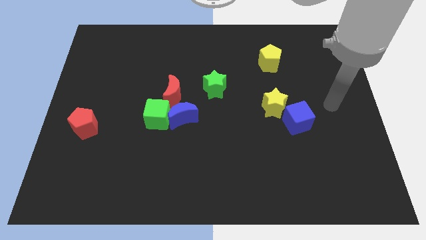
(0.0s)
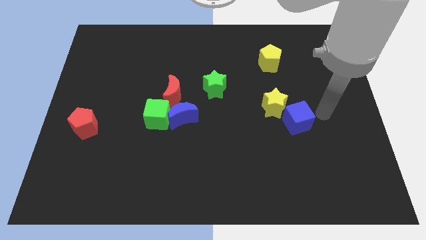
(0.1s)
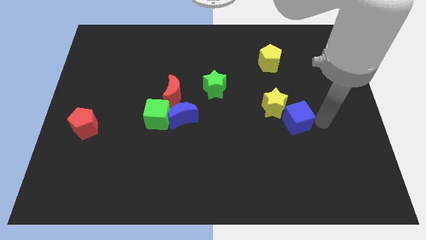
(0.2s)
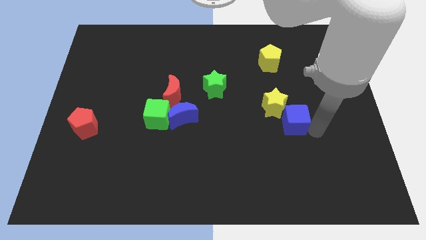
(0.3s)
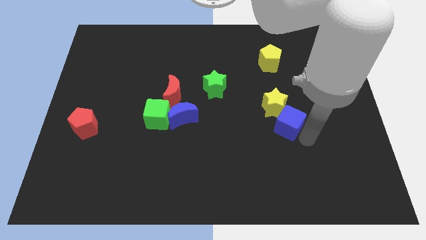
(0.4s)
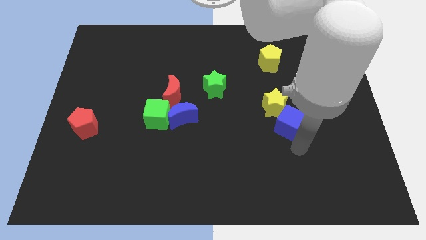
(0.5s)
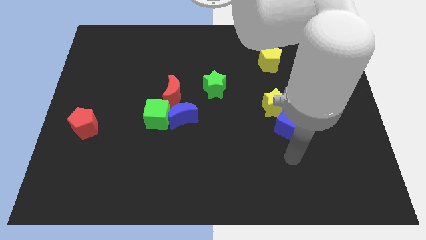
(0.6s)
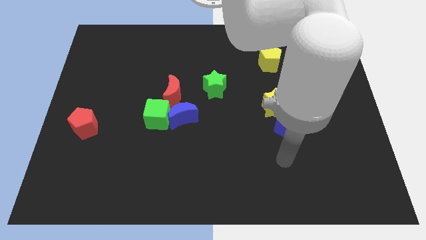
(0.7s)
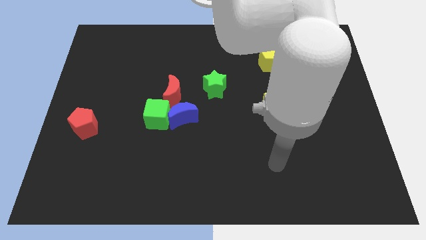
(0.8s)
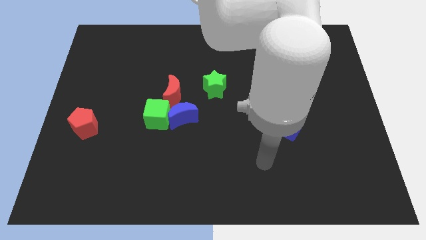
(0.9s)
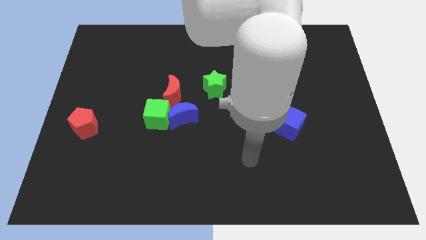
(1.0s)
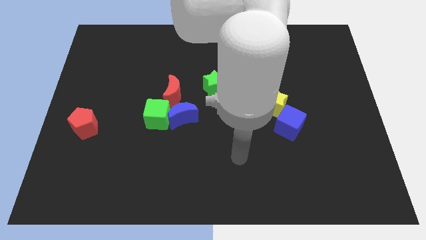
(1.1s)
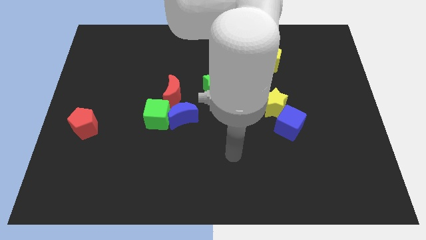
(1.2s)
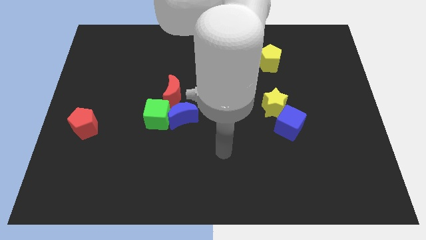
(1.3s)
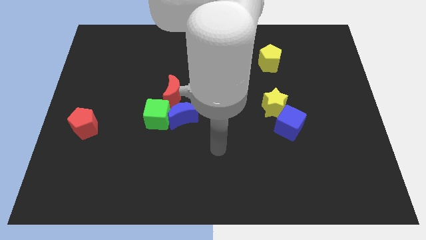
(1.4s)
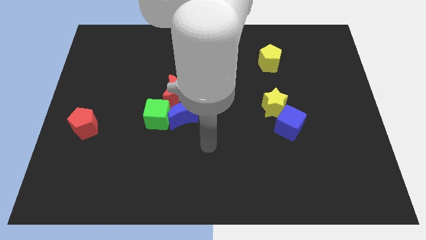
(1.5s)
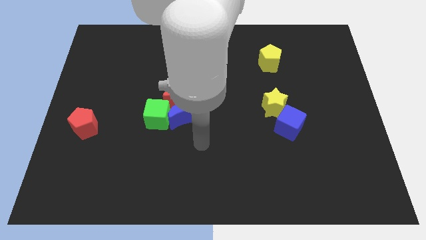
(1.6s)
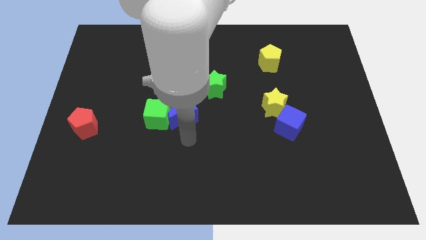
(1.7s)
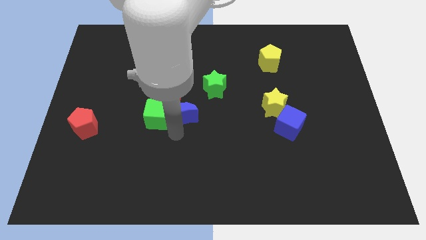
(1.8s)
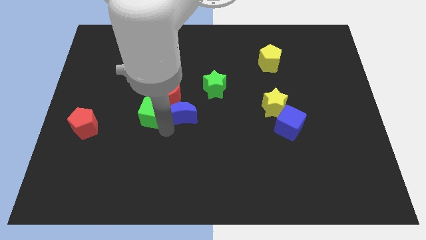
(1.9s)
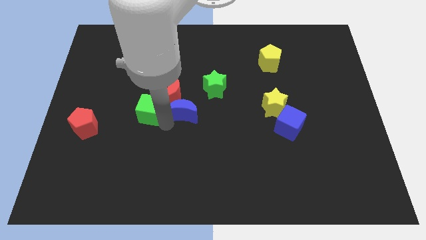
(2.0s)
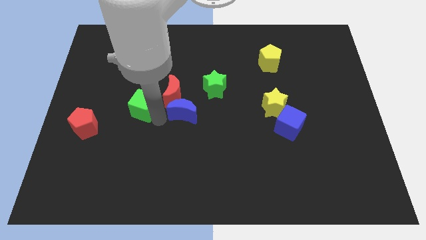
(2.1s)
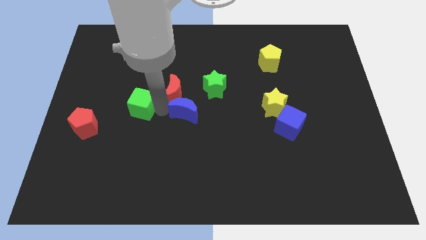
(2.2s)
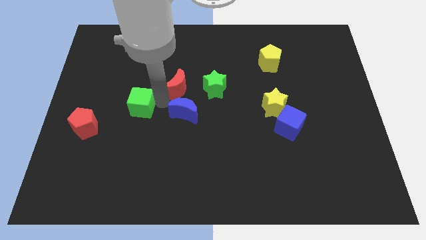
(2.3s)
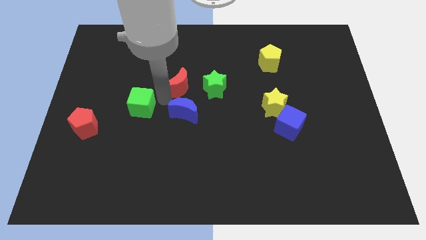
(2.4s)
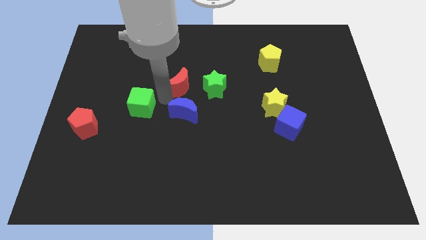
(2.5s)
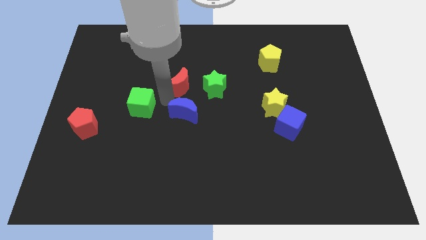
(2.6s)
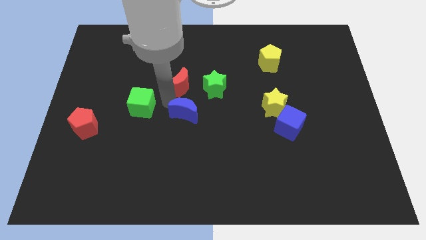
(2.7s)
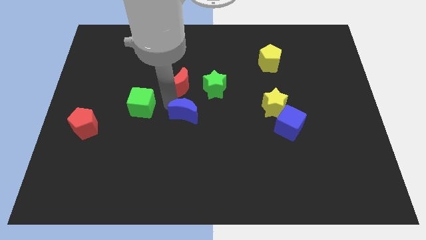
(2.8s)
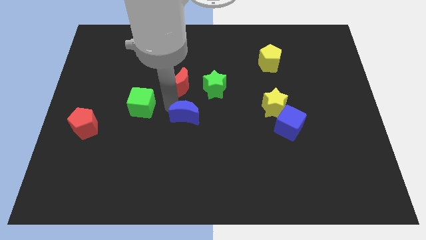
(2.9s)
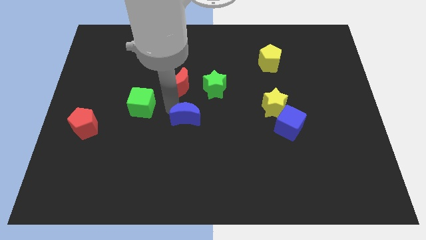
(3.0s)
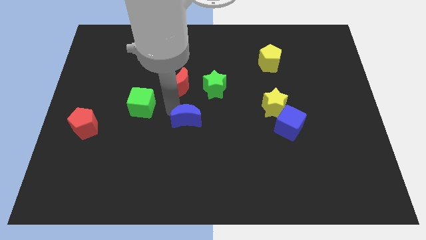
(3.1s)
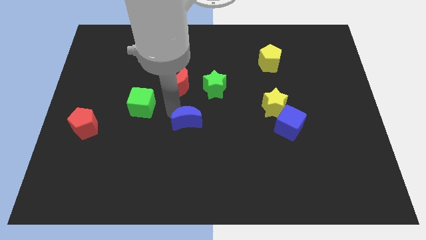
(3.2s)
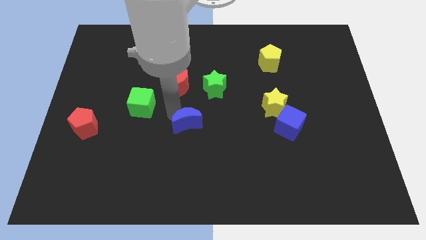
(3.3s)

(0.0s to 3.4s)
move the blue moon away from the green cube and red moon

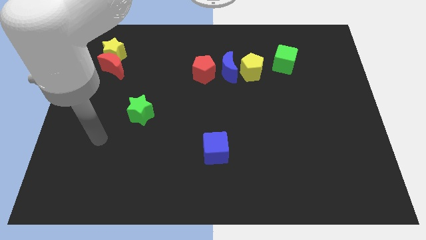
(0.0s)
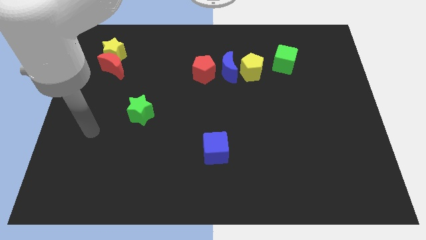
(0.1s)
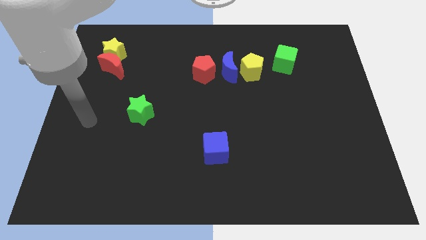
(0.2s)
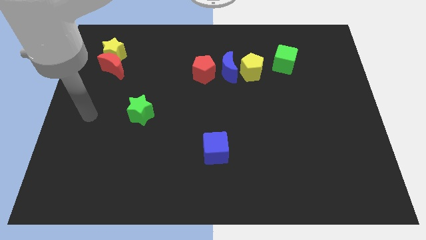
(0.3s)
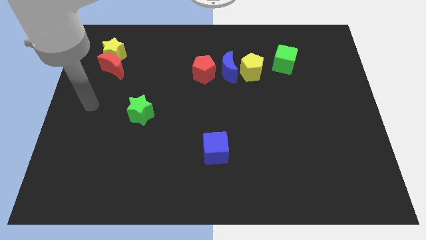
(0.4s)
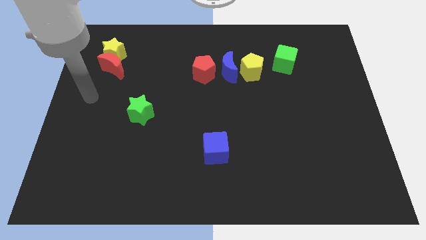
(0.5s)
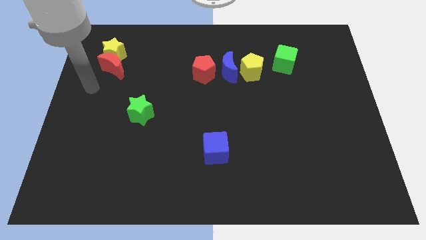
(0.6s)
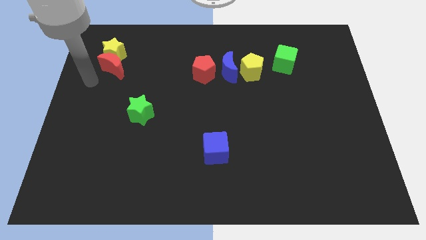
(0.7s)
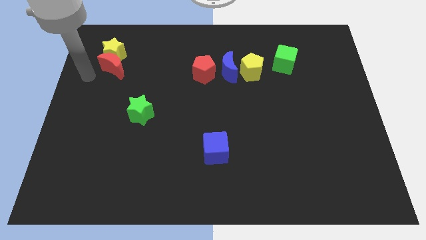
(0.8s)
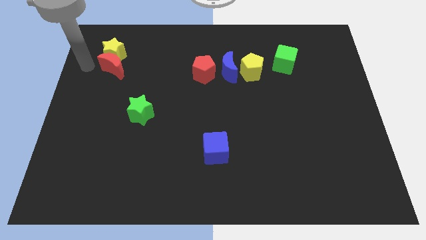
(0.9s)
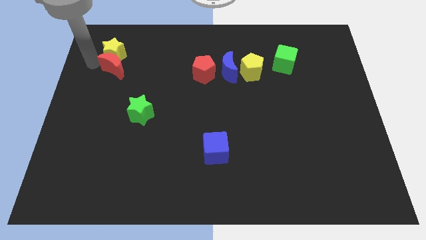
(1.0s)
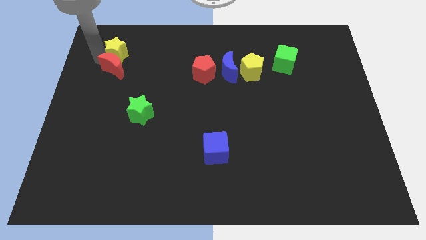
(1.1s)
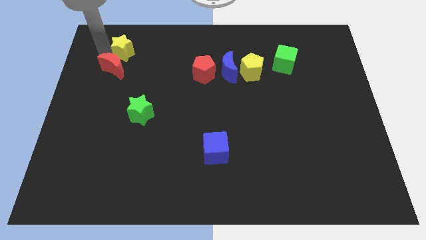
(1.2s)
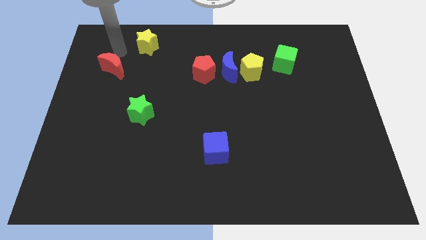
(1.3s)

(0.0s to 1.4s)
pull the red moon apart from the yellow star

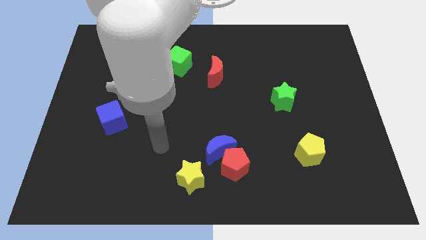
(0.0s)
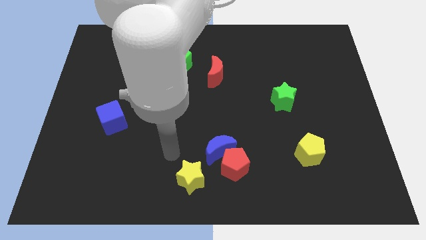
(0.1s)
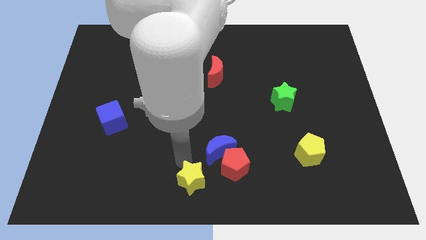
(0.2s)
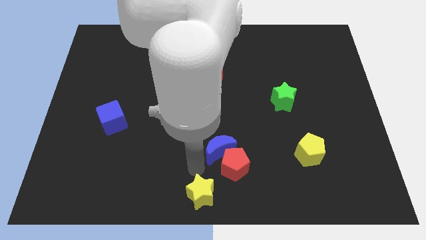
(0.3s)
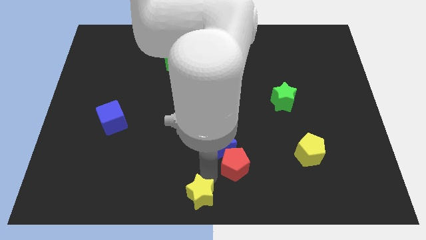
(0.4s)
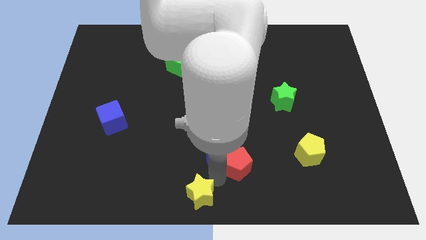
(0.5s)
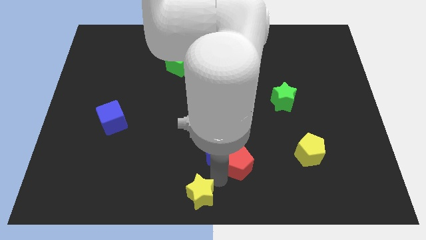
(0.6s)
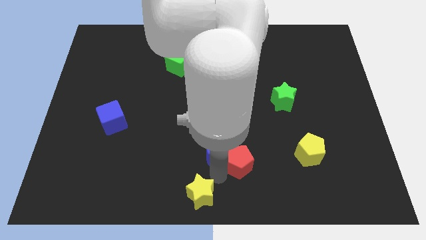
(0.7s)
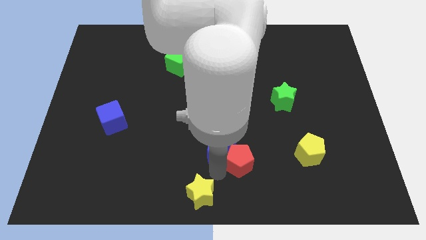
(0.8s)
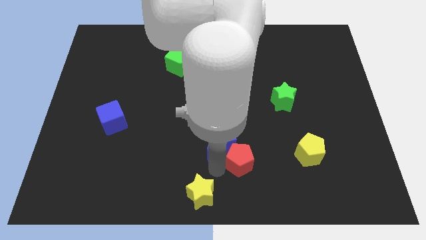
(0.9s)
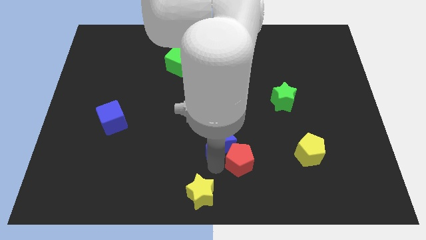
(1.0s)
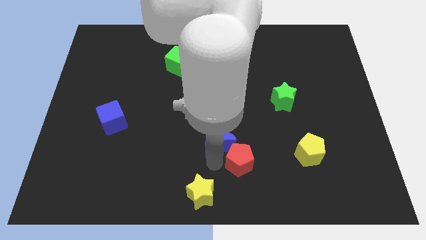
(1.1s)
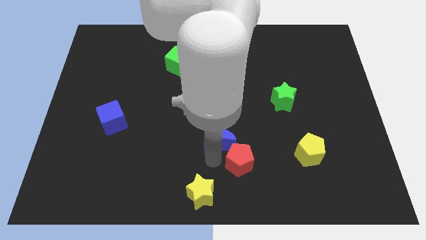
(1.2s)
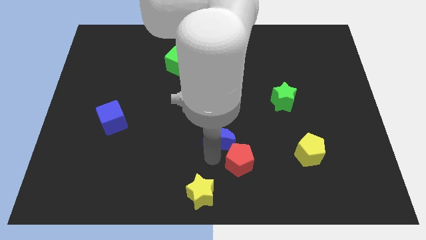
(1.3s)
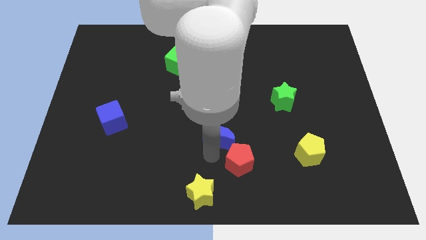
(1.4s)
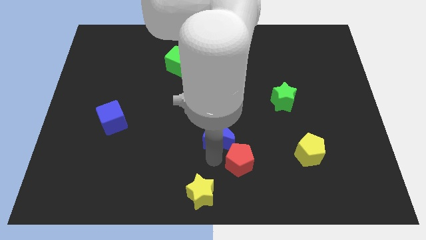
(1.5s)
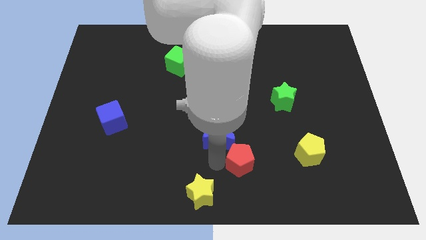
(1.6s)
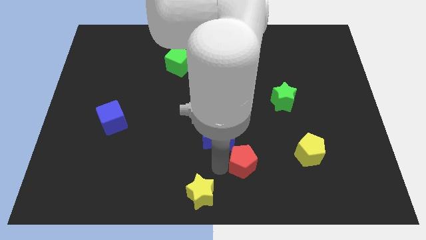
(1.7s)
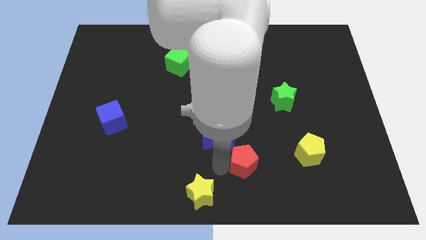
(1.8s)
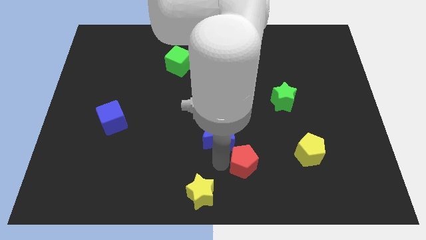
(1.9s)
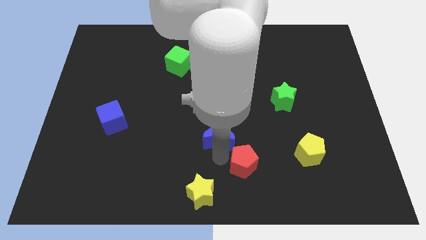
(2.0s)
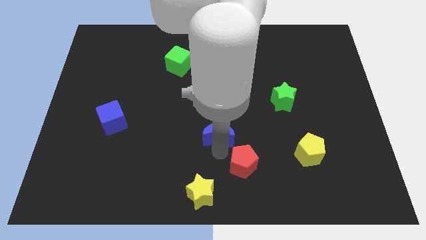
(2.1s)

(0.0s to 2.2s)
pull the blue moon apart from the red pentagon and yellow star

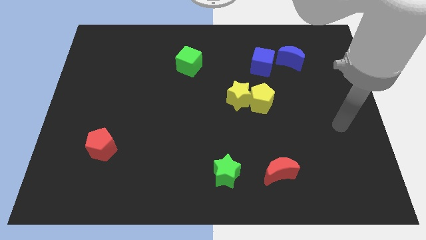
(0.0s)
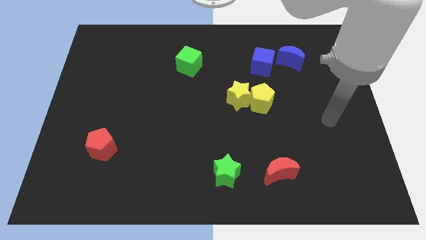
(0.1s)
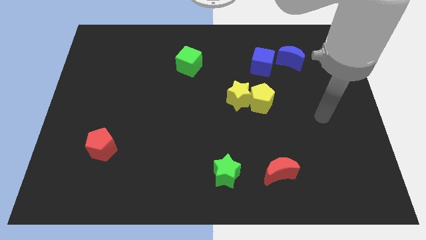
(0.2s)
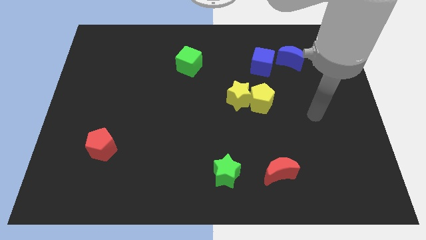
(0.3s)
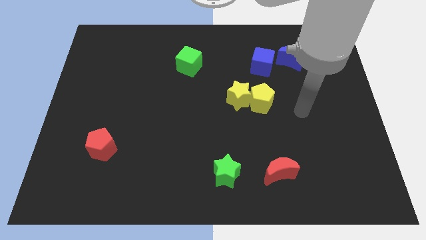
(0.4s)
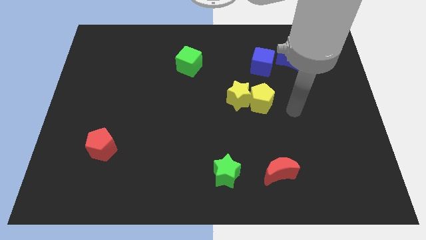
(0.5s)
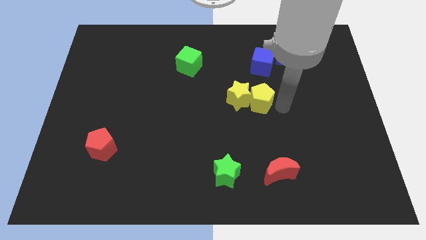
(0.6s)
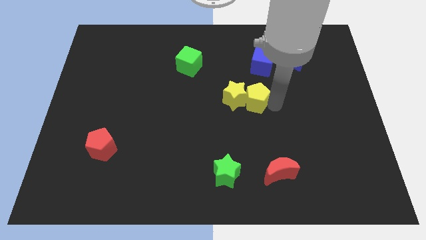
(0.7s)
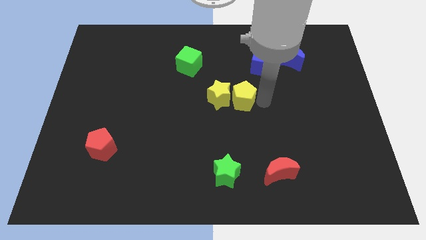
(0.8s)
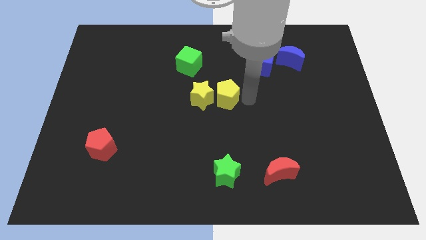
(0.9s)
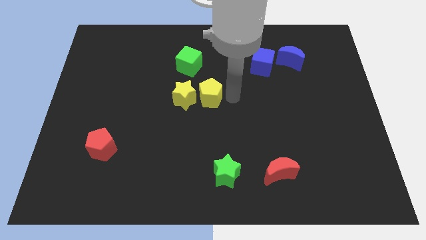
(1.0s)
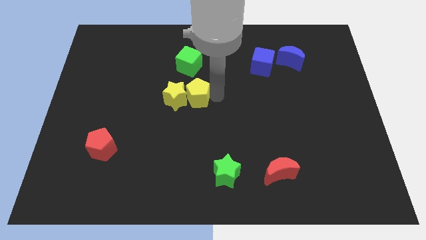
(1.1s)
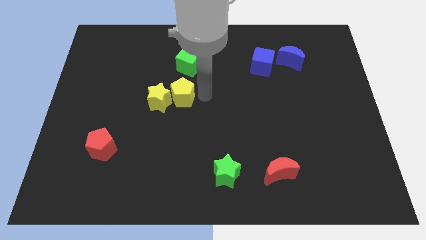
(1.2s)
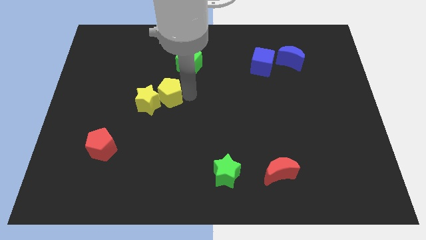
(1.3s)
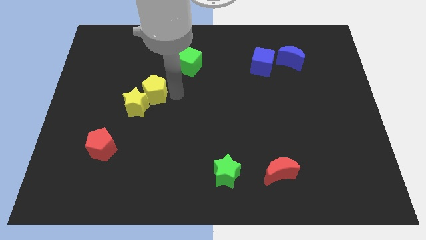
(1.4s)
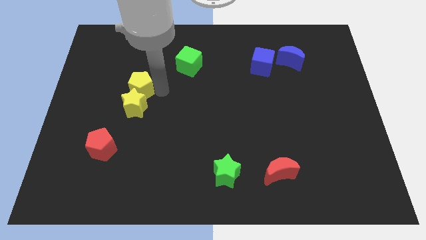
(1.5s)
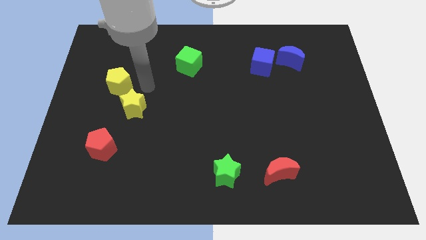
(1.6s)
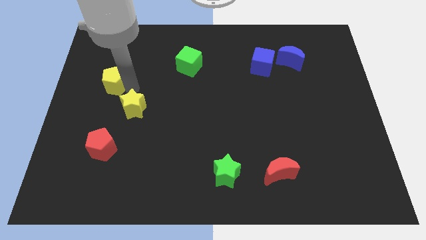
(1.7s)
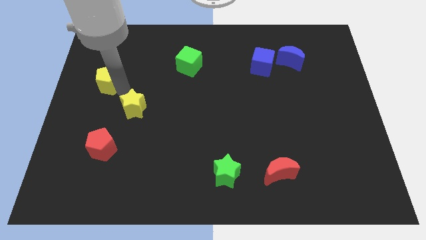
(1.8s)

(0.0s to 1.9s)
move the yellow star away from the yellow pentagon

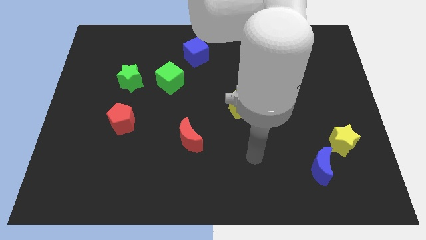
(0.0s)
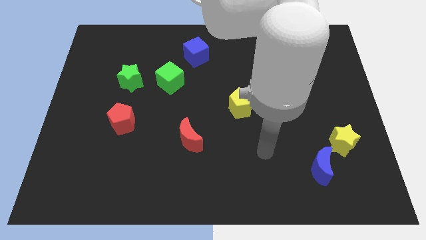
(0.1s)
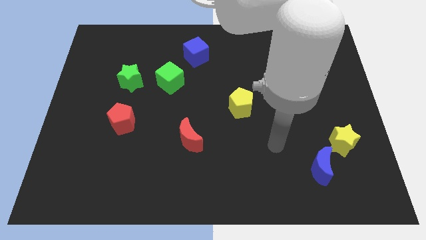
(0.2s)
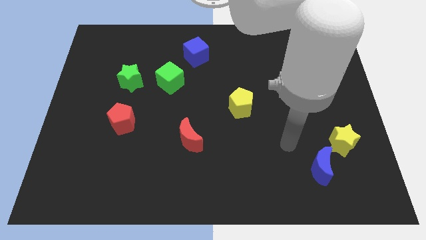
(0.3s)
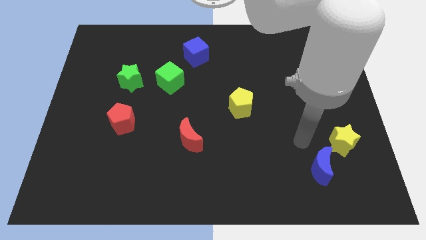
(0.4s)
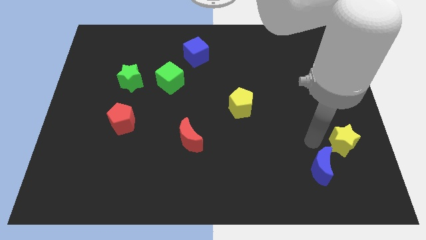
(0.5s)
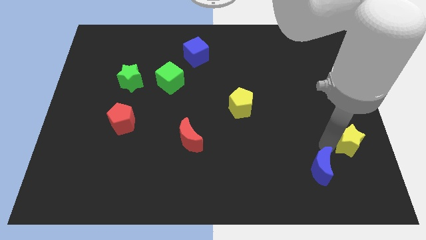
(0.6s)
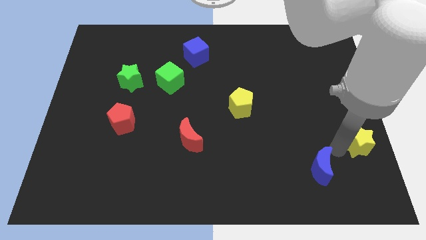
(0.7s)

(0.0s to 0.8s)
move the blue moon away from the yellow star
